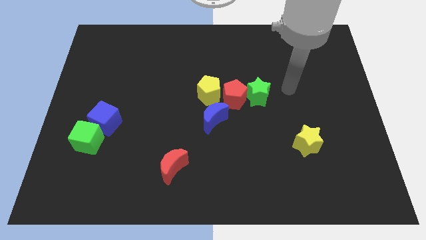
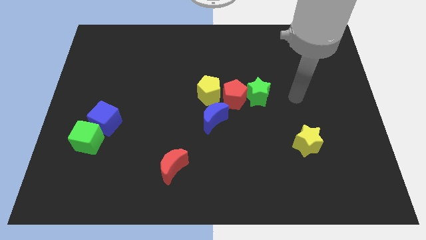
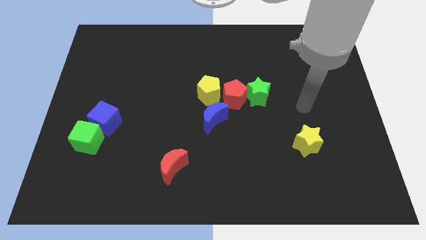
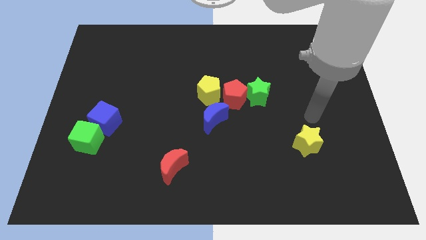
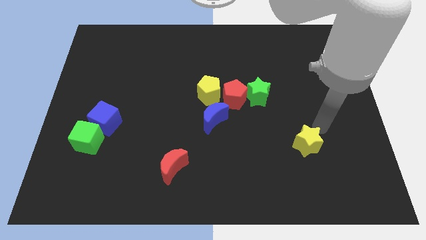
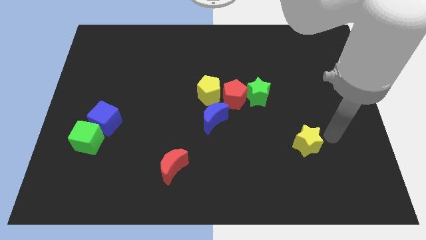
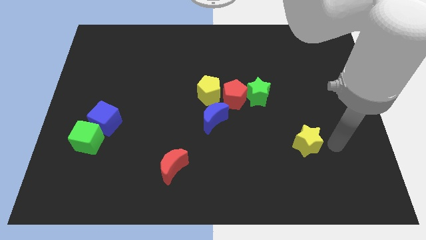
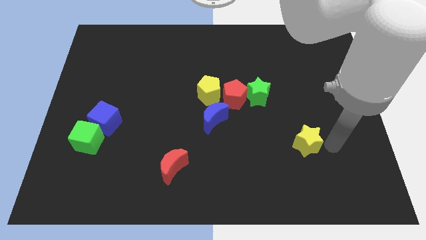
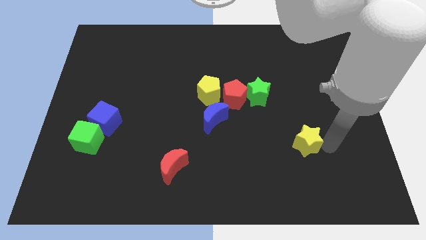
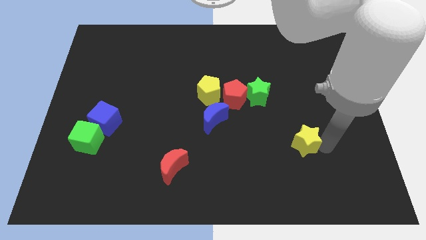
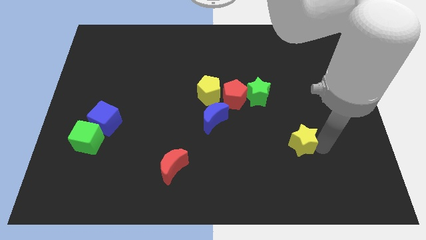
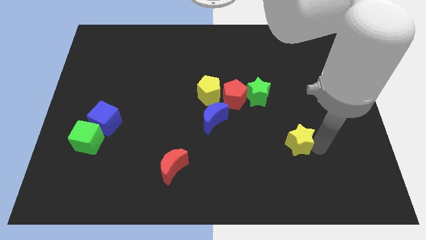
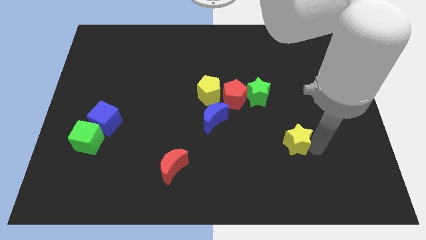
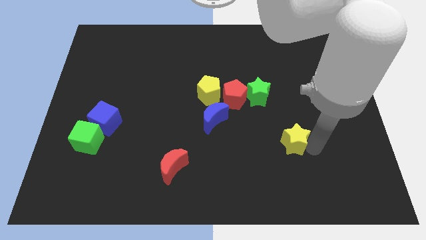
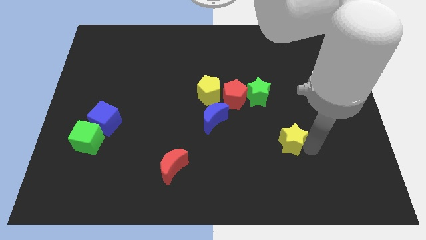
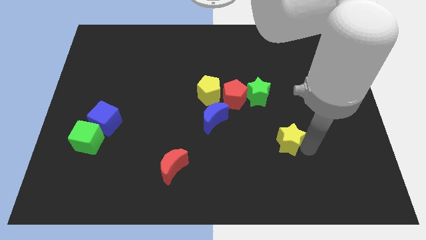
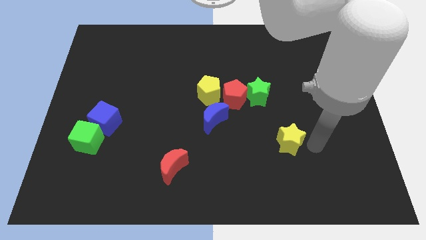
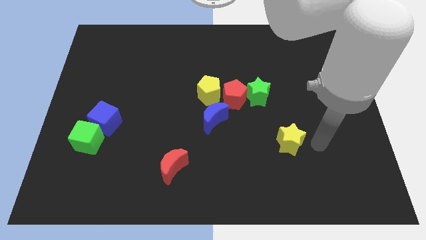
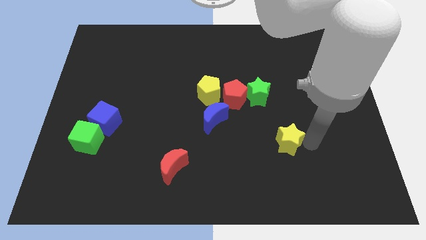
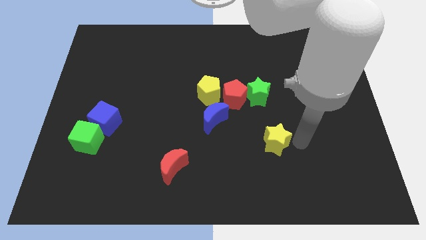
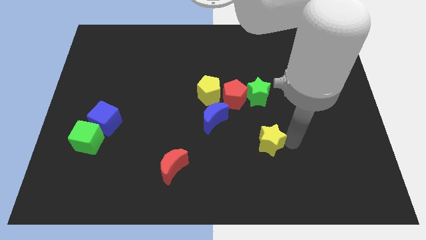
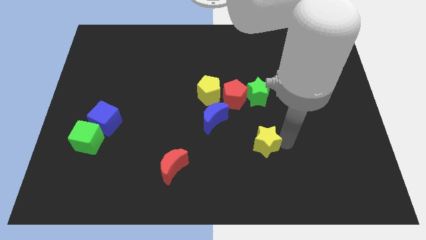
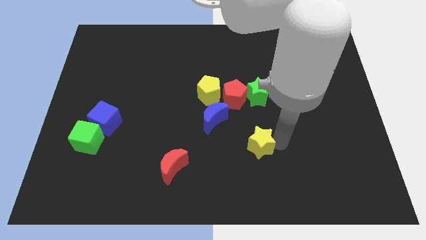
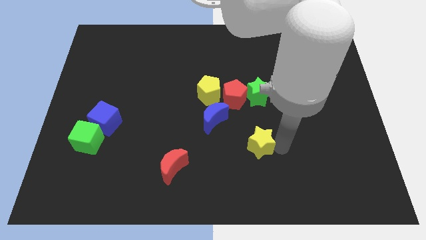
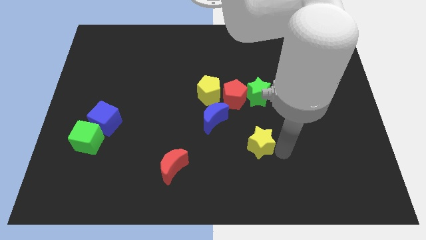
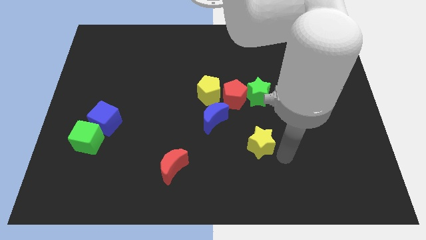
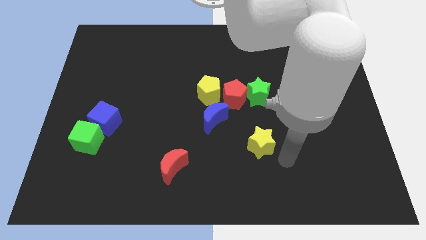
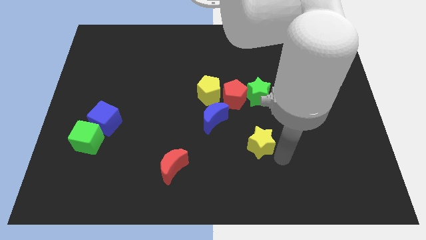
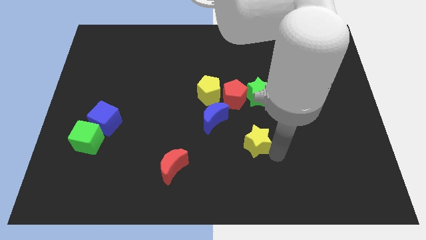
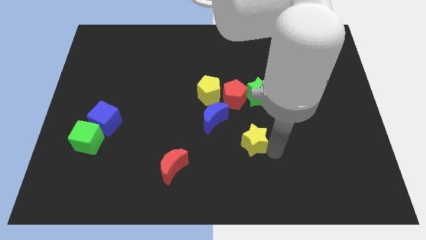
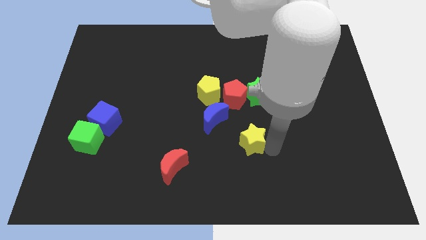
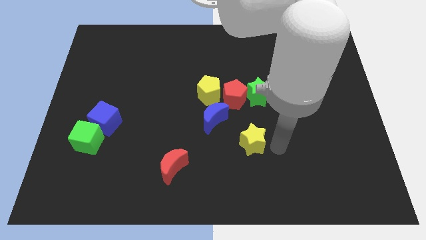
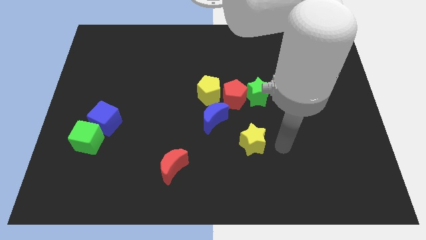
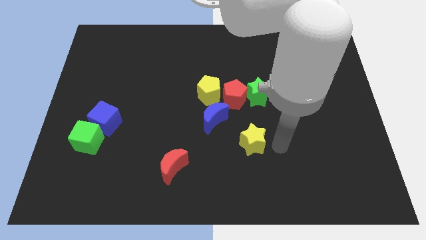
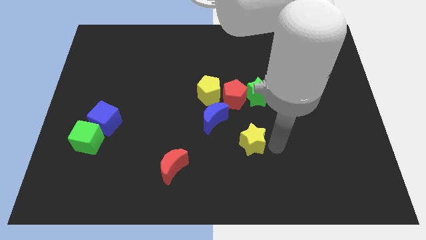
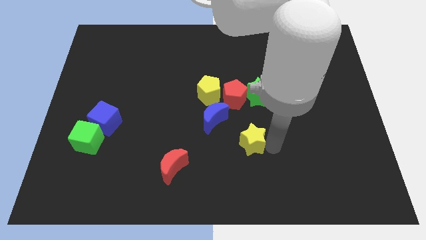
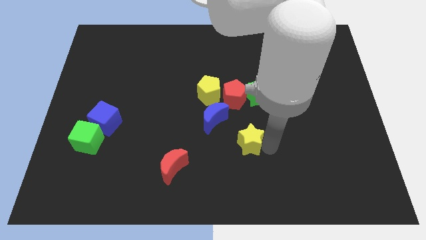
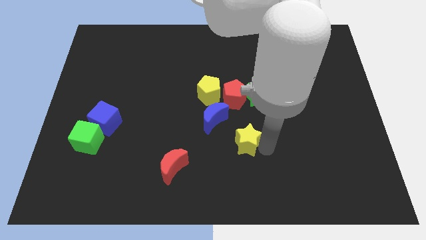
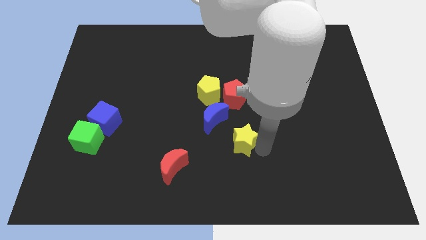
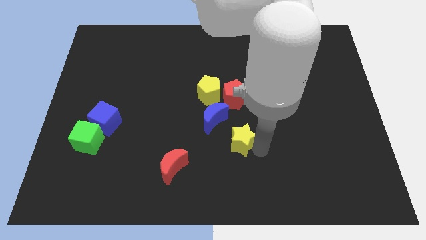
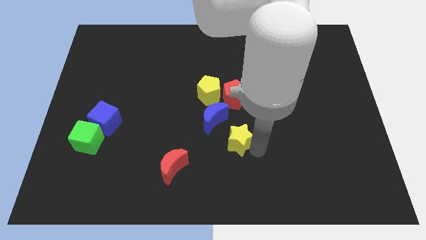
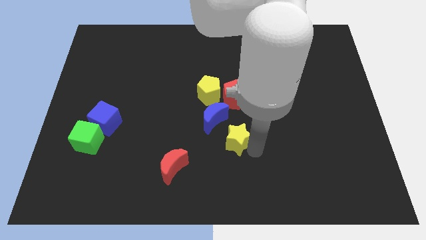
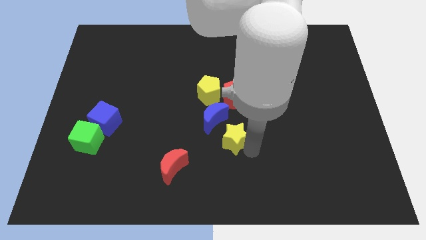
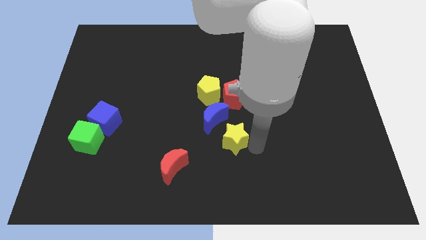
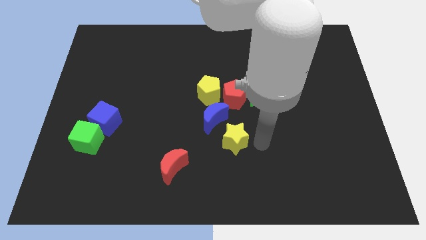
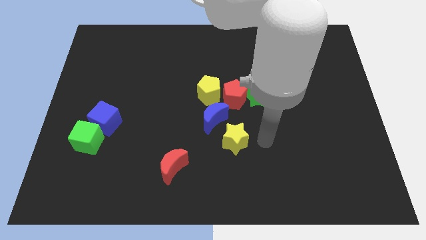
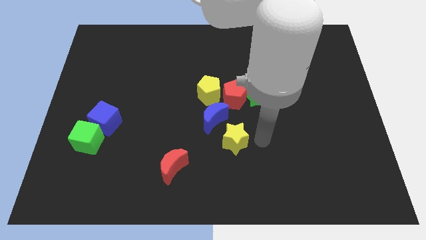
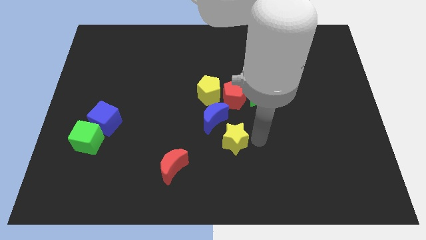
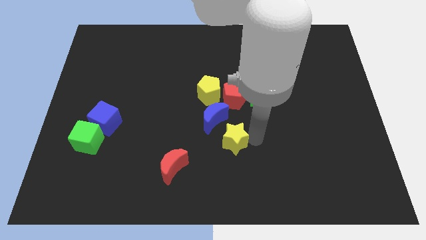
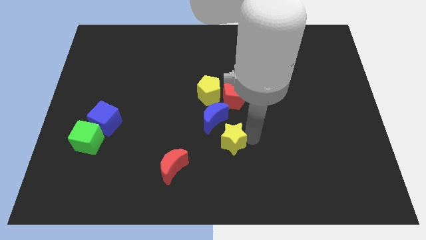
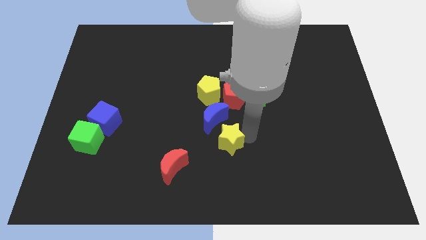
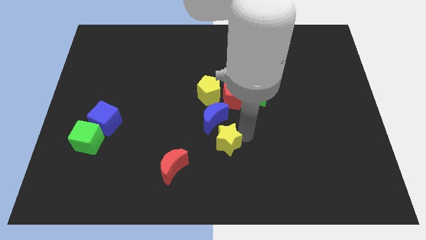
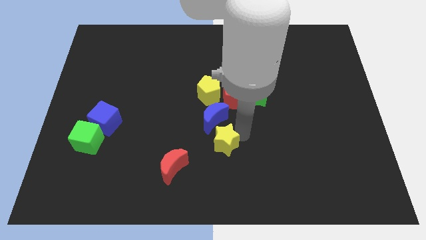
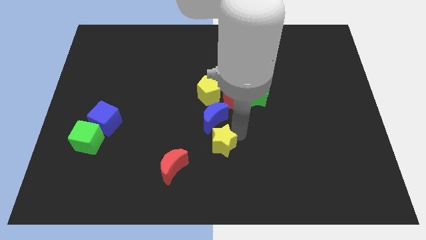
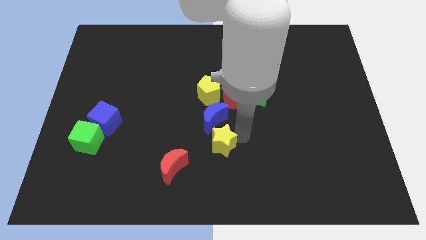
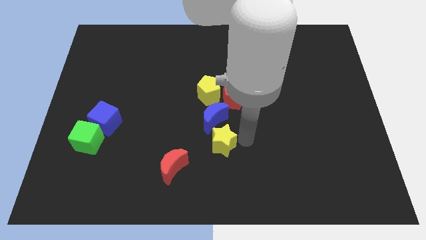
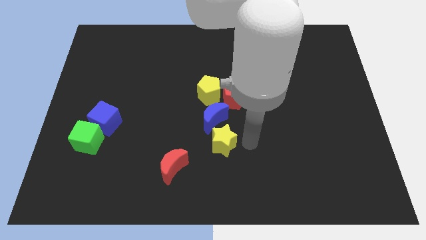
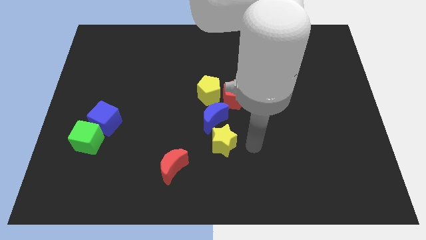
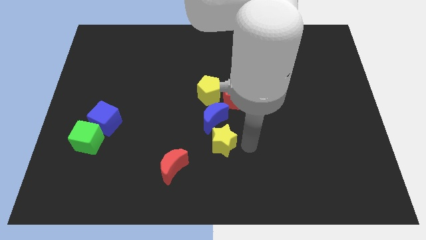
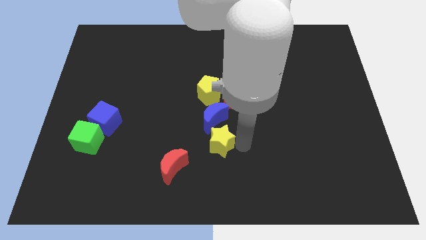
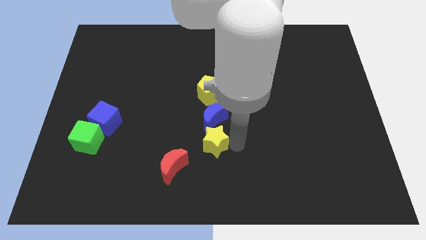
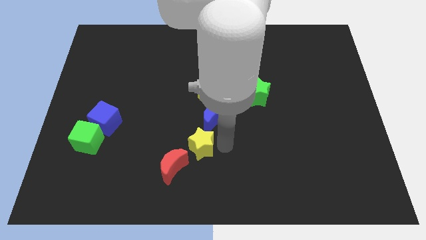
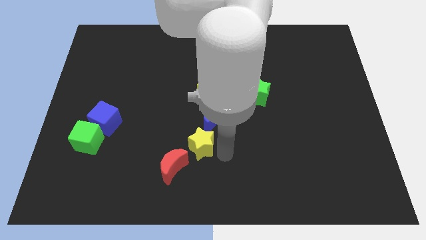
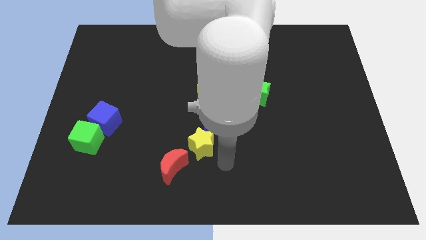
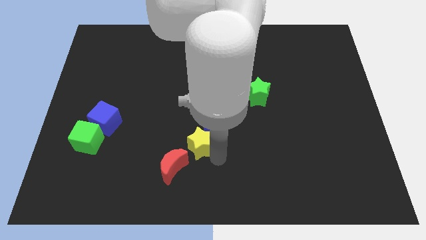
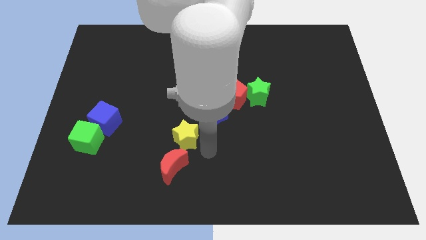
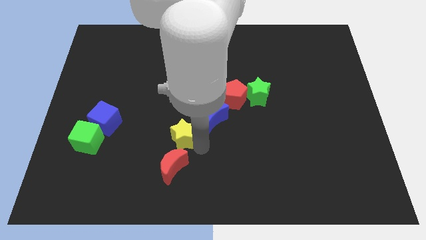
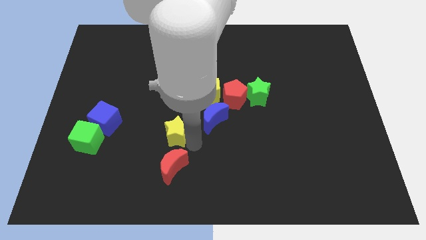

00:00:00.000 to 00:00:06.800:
slide the yellow star just left of the blue moon

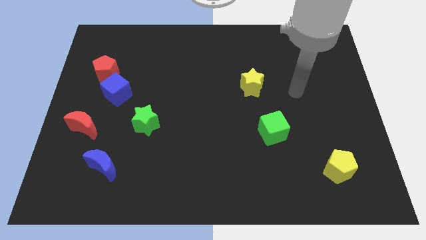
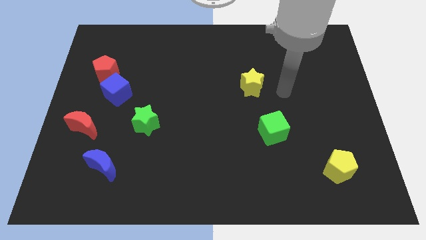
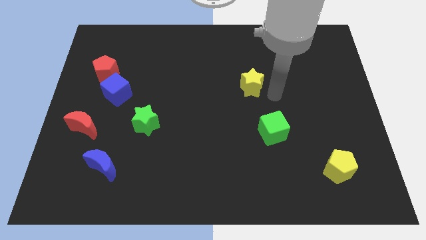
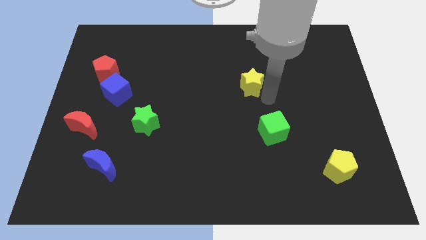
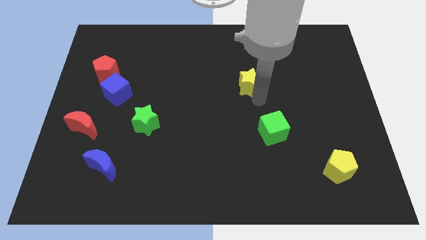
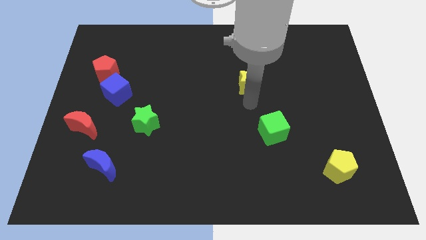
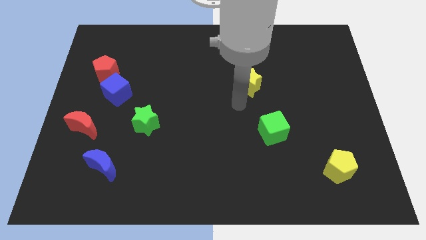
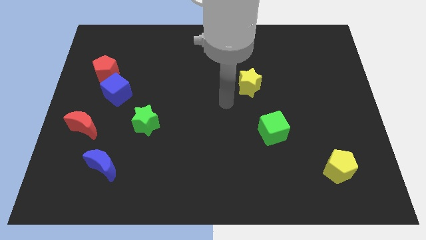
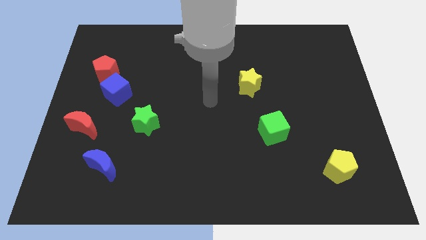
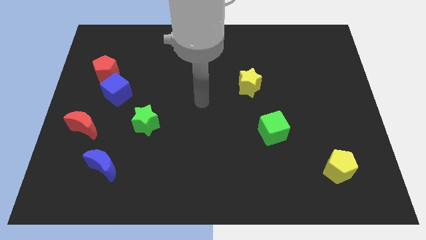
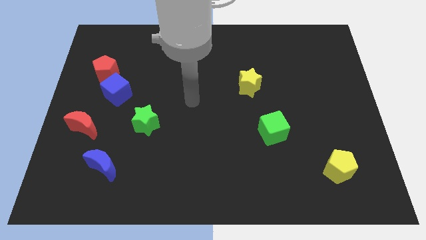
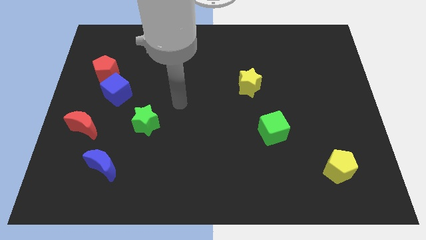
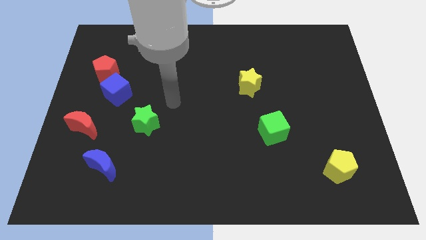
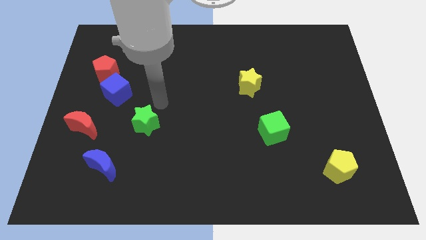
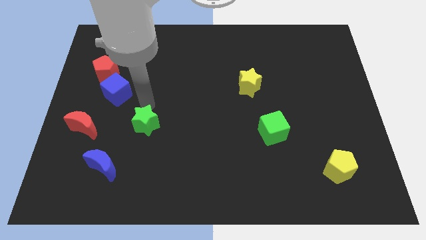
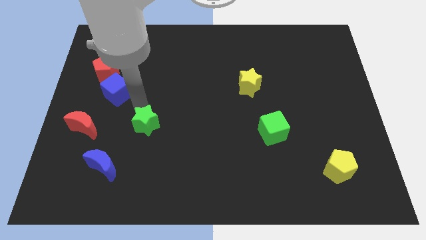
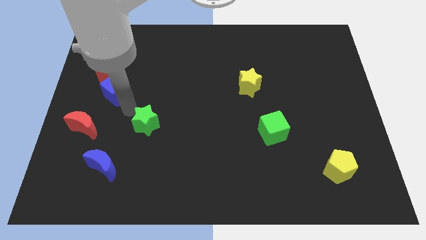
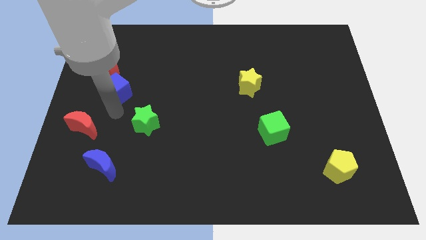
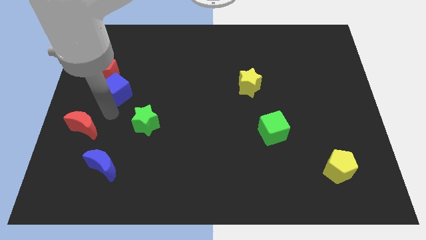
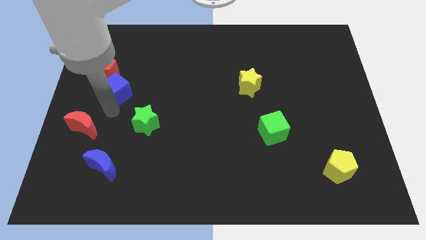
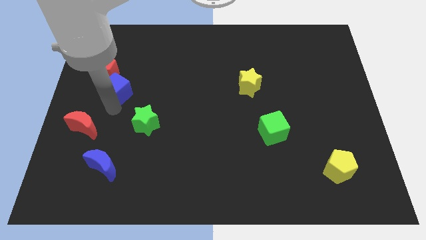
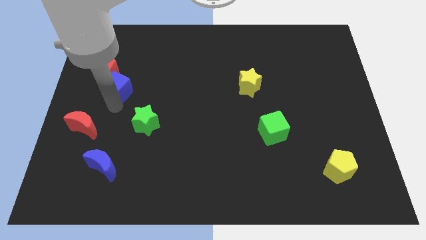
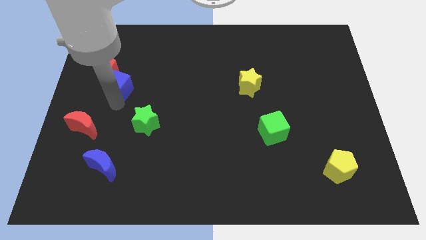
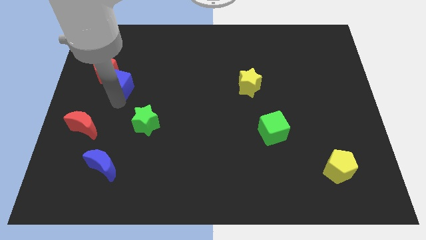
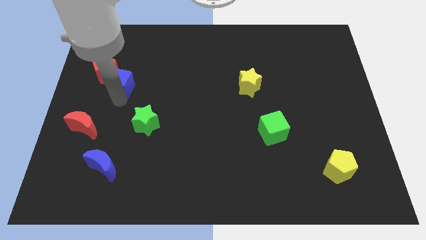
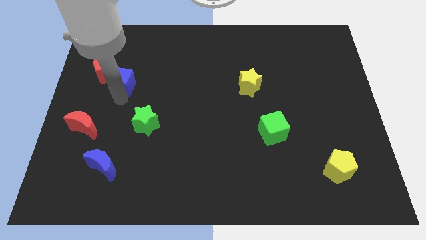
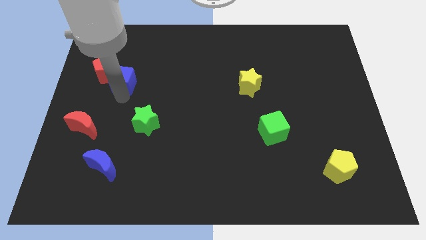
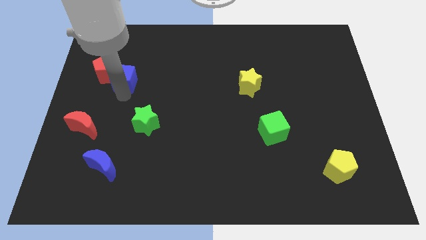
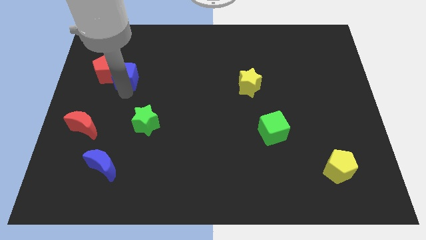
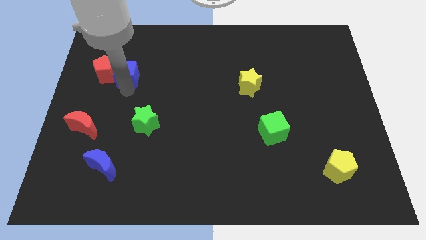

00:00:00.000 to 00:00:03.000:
move the blue cube to the top right side of the red pentagon
